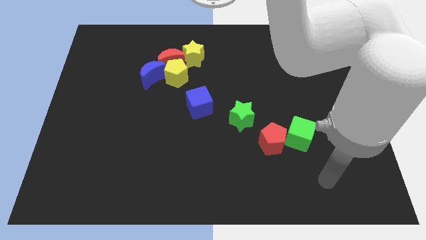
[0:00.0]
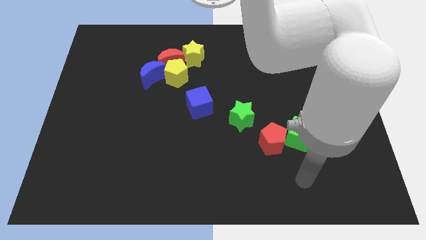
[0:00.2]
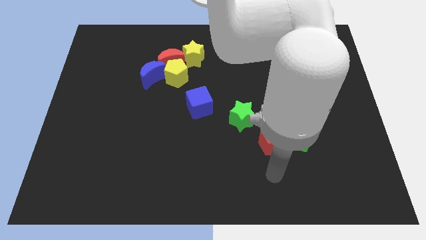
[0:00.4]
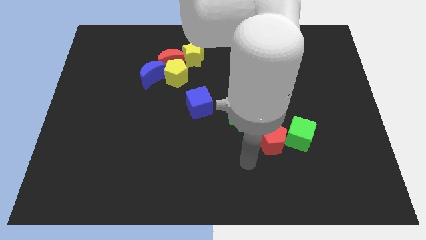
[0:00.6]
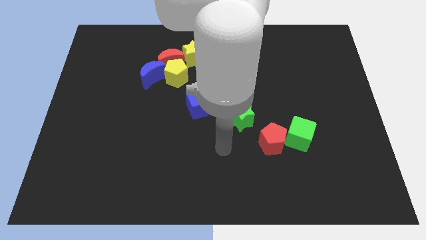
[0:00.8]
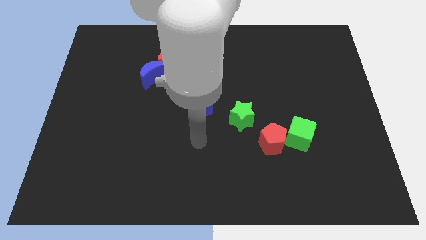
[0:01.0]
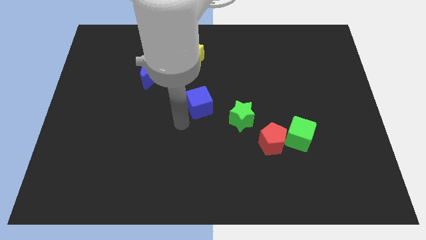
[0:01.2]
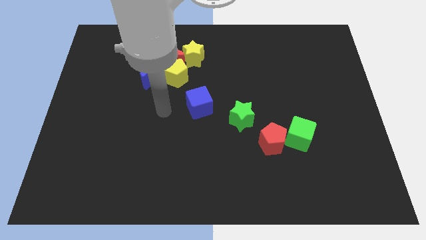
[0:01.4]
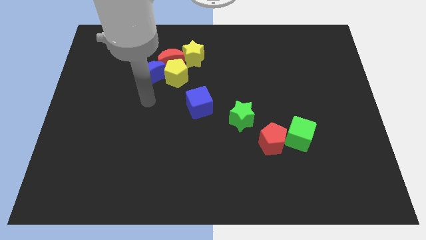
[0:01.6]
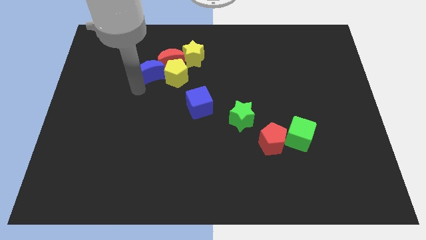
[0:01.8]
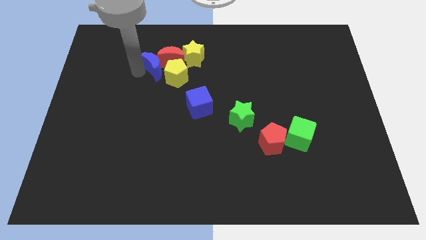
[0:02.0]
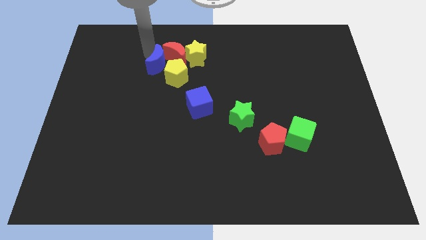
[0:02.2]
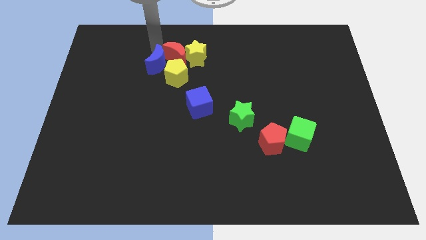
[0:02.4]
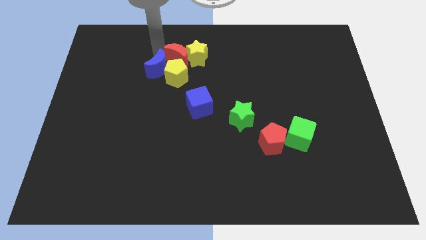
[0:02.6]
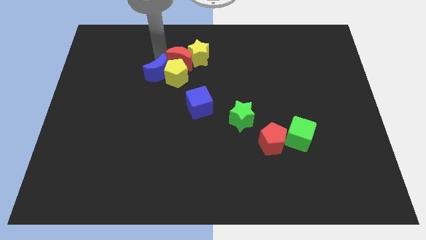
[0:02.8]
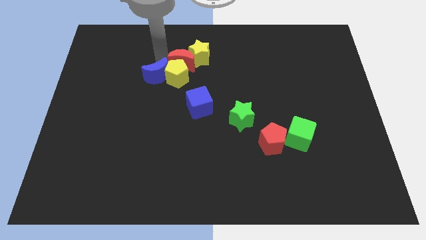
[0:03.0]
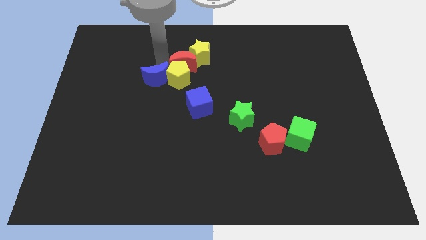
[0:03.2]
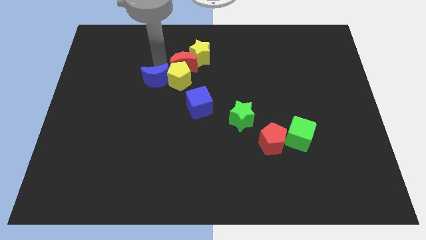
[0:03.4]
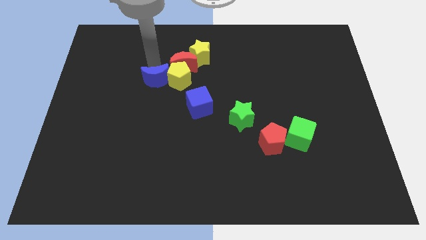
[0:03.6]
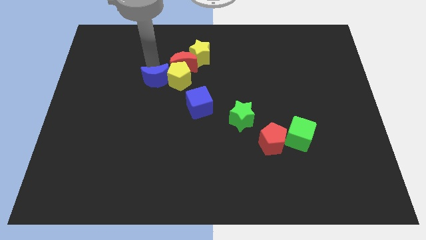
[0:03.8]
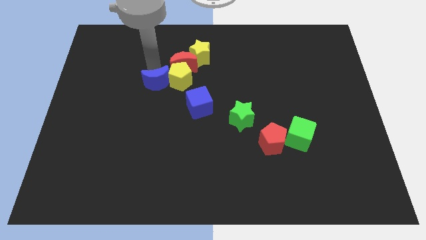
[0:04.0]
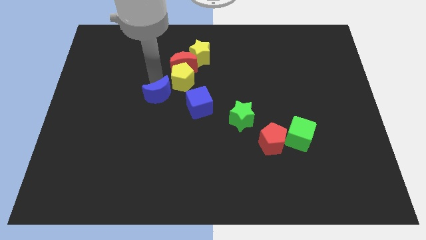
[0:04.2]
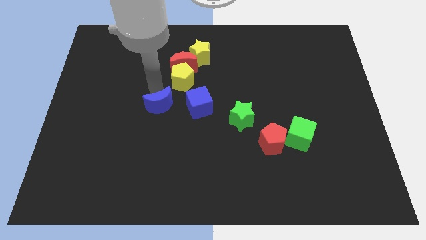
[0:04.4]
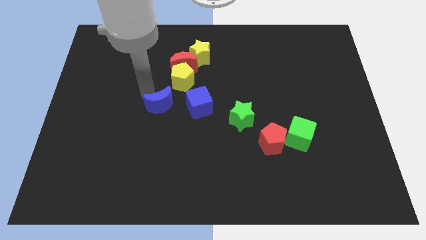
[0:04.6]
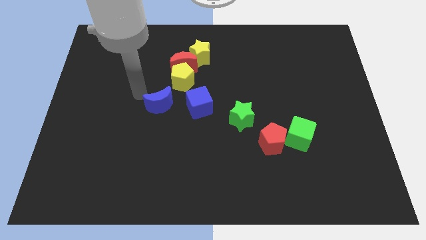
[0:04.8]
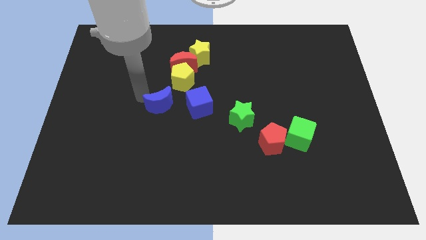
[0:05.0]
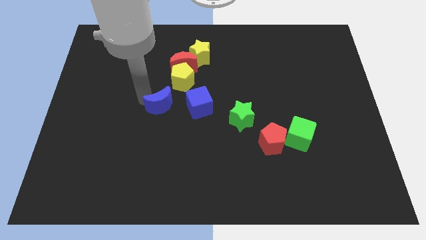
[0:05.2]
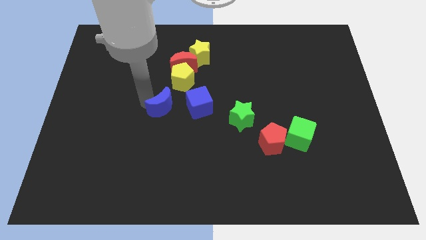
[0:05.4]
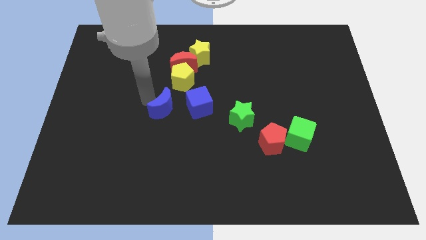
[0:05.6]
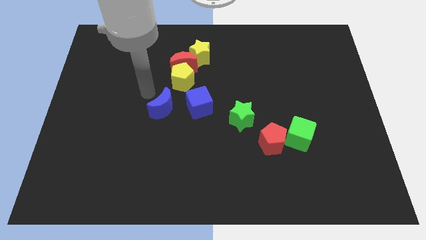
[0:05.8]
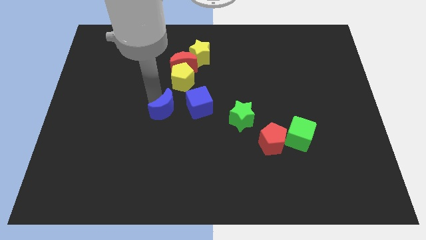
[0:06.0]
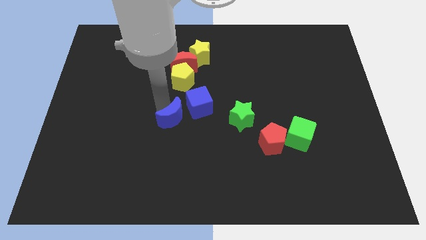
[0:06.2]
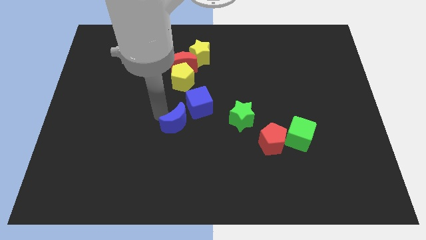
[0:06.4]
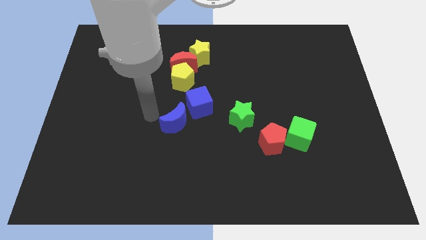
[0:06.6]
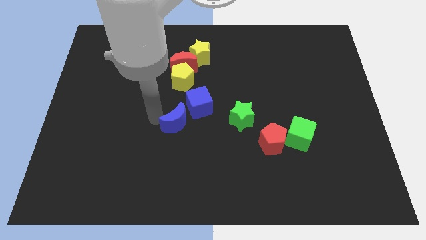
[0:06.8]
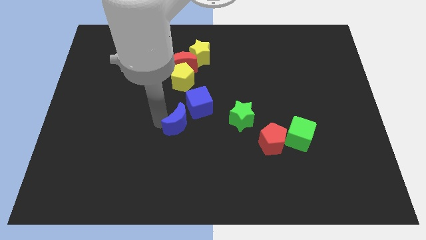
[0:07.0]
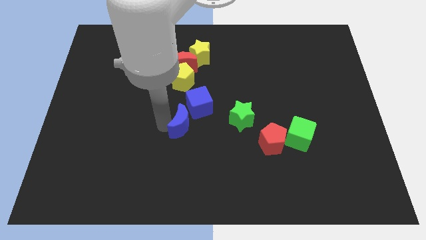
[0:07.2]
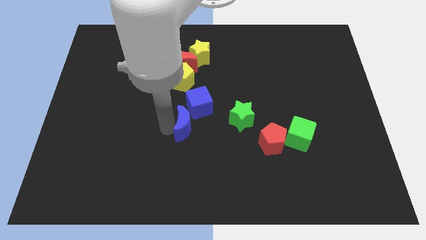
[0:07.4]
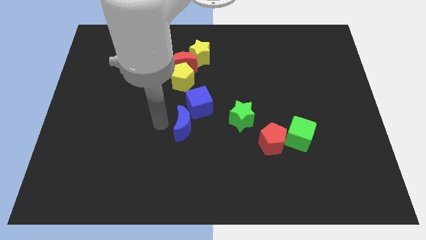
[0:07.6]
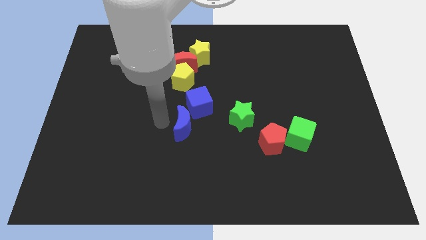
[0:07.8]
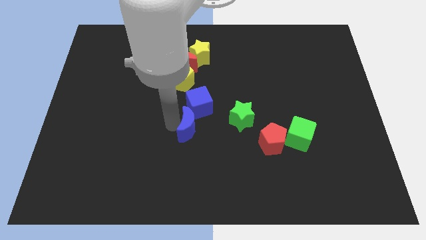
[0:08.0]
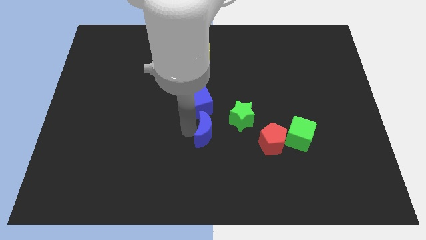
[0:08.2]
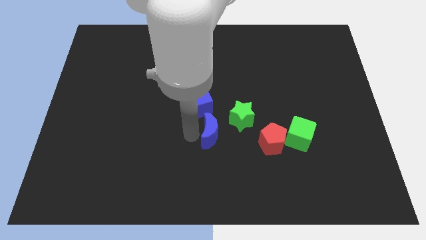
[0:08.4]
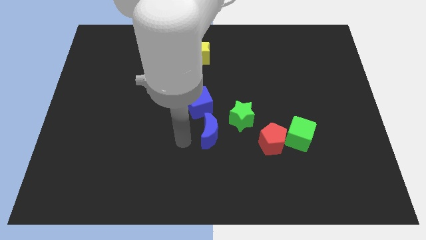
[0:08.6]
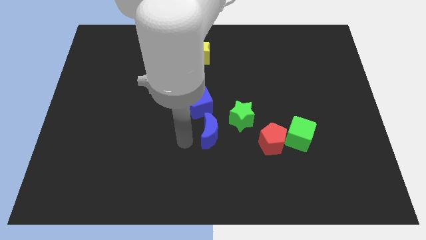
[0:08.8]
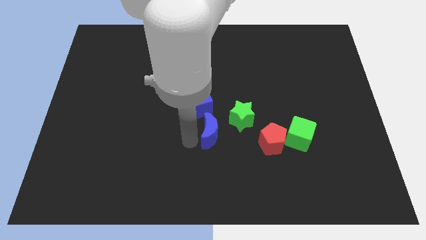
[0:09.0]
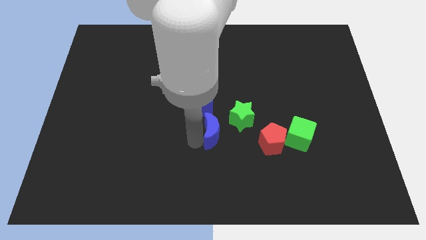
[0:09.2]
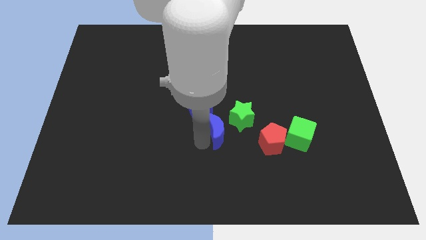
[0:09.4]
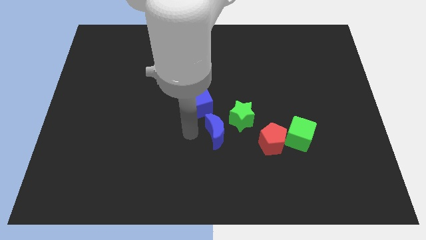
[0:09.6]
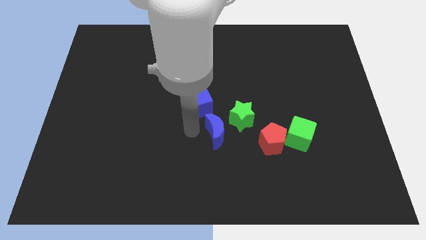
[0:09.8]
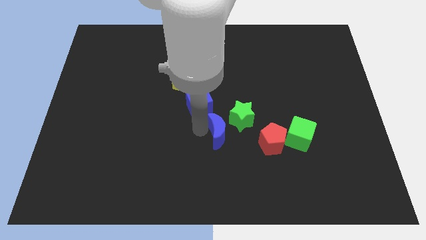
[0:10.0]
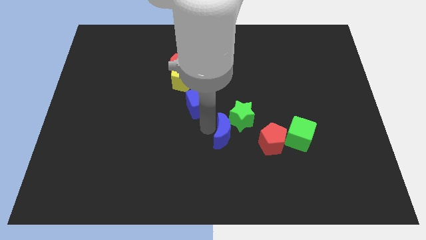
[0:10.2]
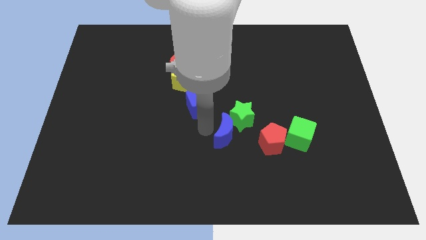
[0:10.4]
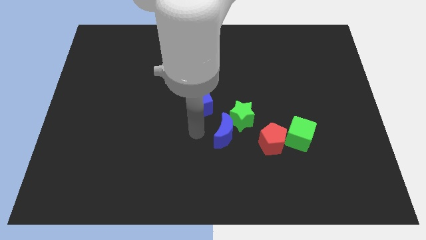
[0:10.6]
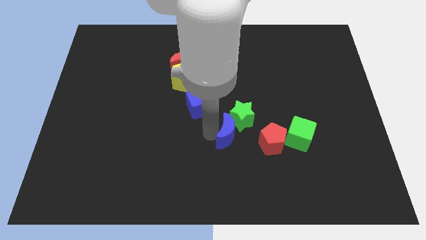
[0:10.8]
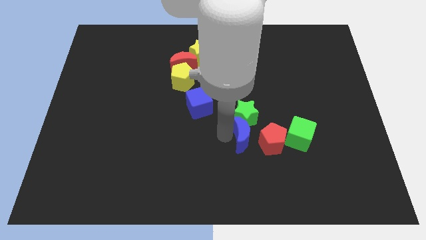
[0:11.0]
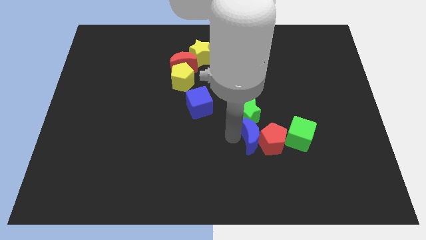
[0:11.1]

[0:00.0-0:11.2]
move the blue moon close to the red pentagon

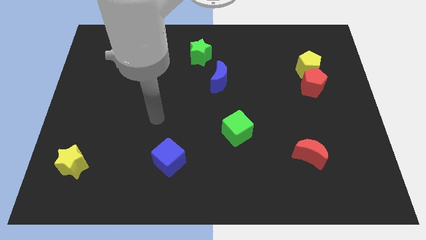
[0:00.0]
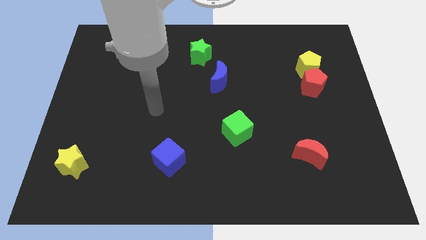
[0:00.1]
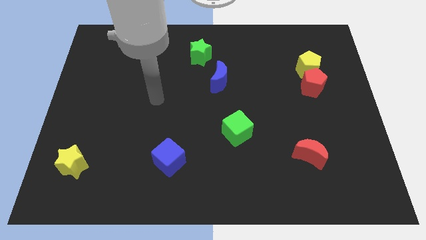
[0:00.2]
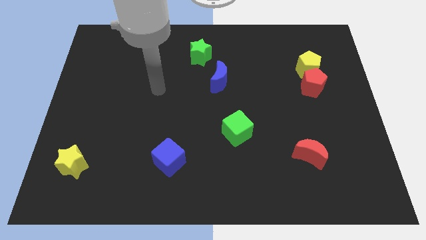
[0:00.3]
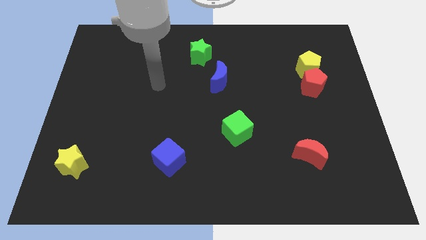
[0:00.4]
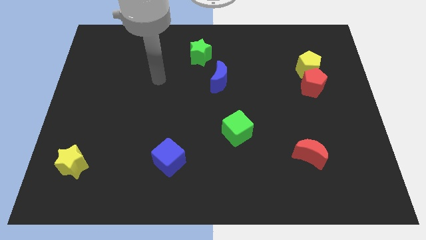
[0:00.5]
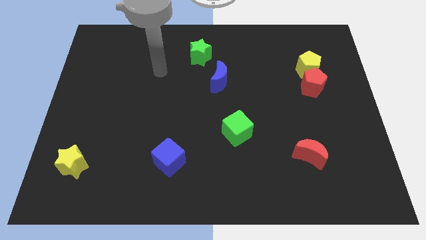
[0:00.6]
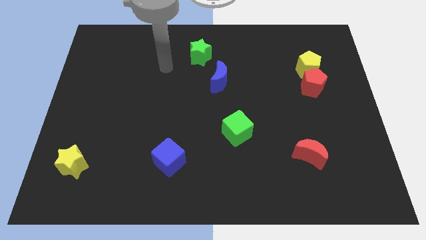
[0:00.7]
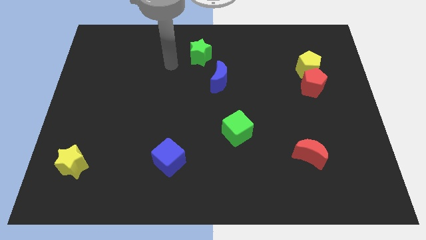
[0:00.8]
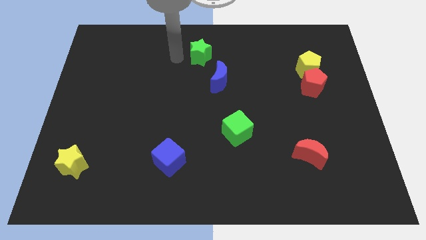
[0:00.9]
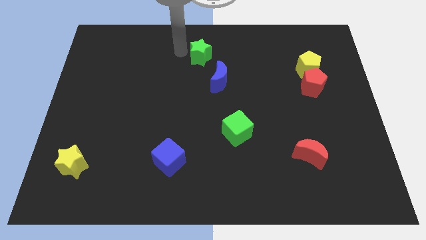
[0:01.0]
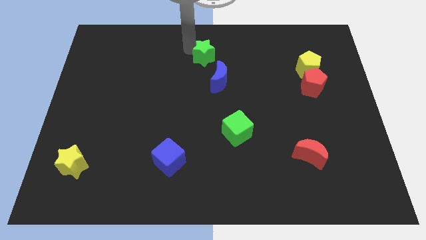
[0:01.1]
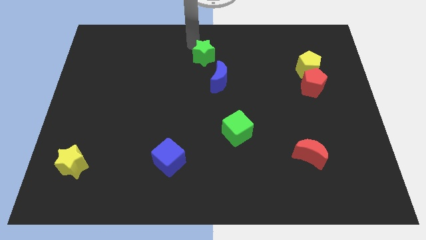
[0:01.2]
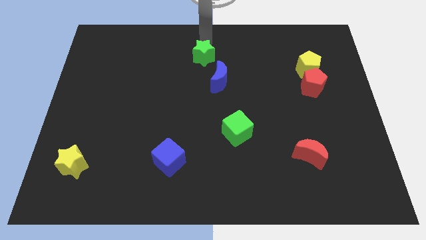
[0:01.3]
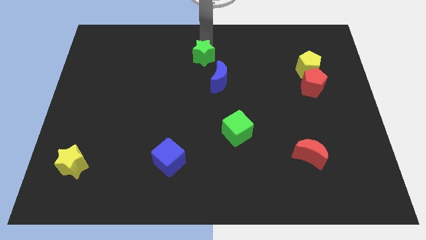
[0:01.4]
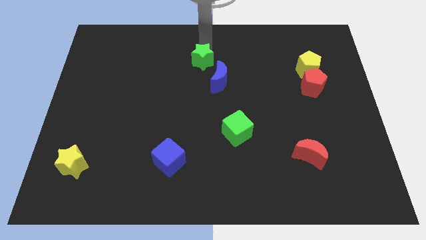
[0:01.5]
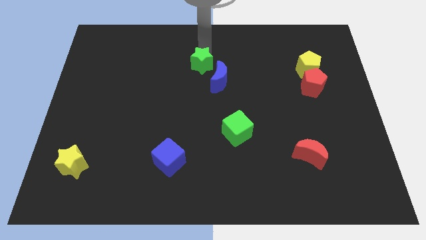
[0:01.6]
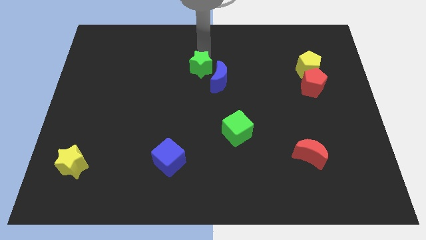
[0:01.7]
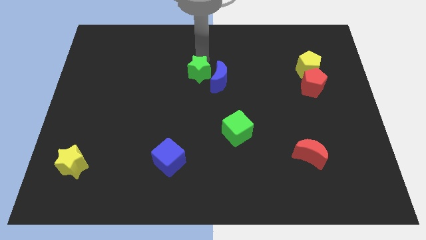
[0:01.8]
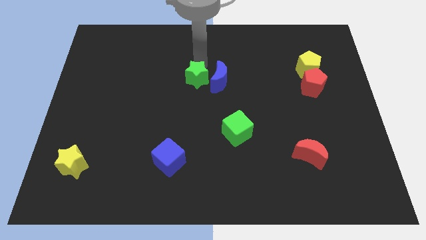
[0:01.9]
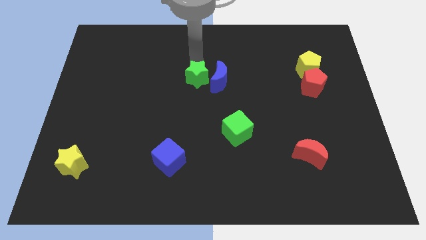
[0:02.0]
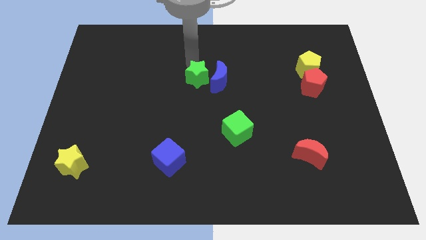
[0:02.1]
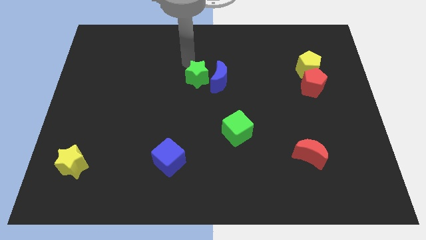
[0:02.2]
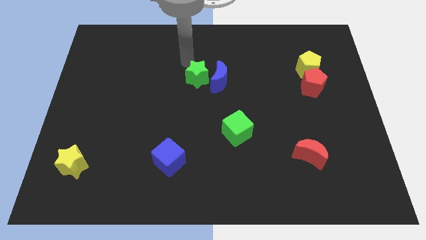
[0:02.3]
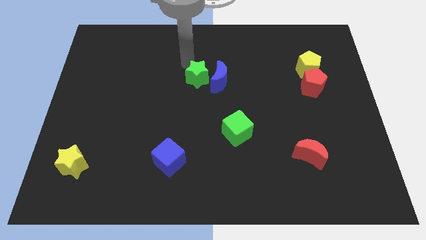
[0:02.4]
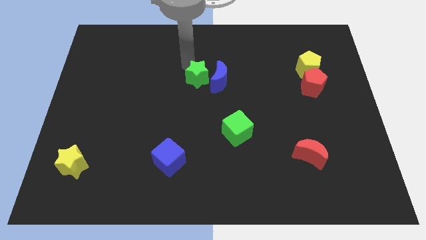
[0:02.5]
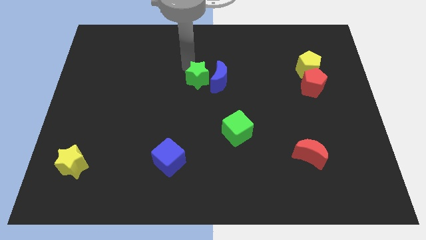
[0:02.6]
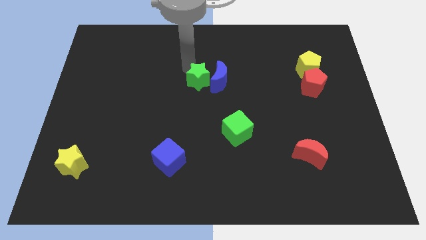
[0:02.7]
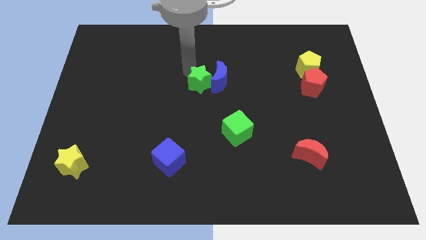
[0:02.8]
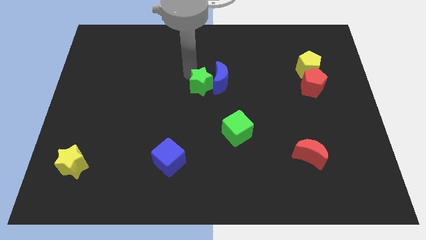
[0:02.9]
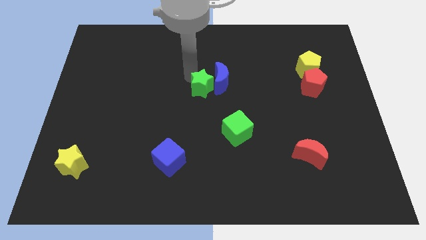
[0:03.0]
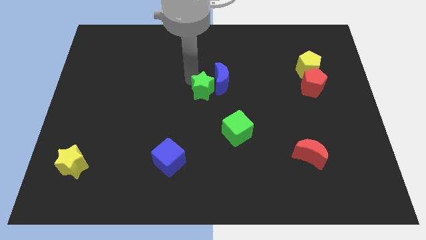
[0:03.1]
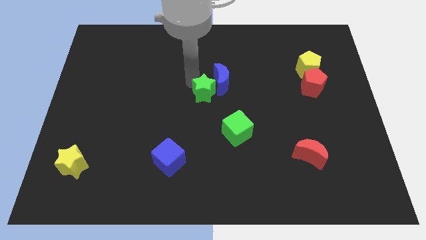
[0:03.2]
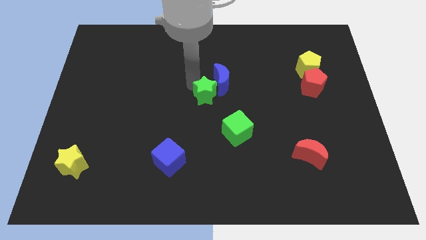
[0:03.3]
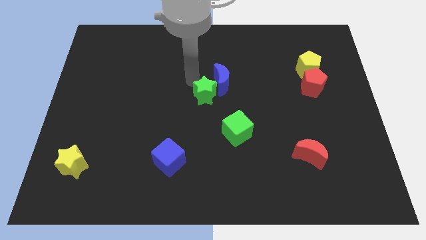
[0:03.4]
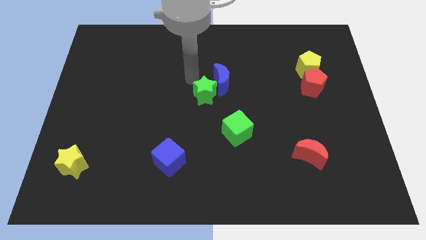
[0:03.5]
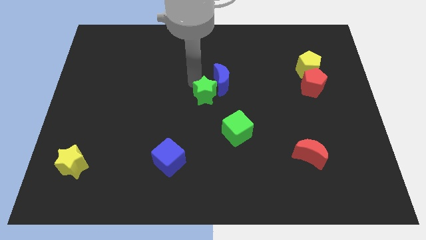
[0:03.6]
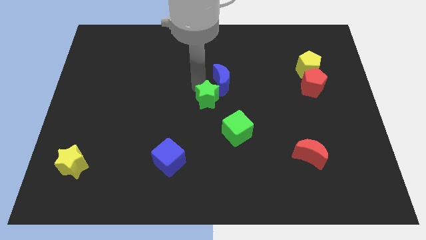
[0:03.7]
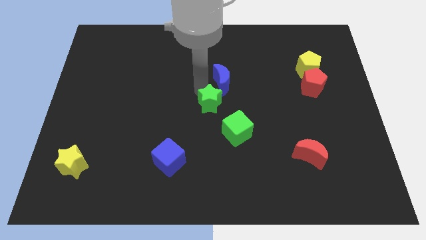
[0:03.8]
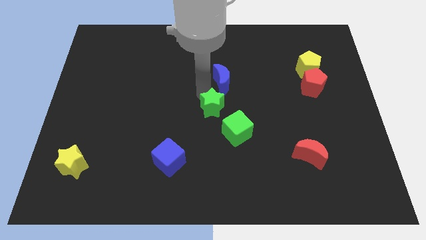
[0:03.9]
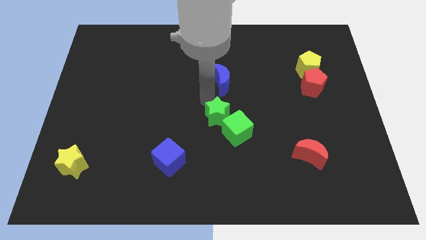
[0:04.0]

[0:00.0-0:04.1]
move the green star to the green cube
